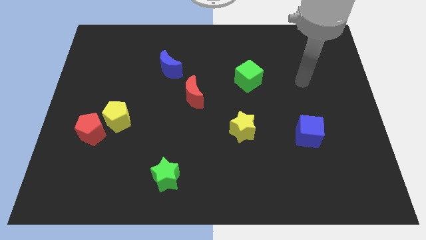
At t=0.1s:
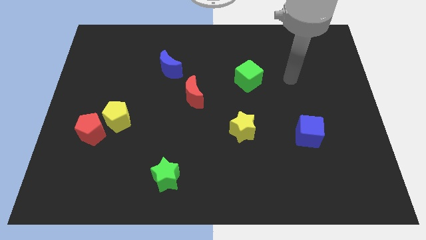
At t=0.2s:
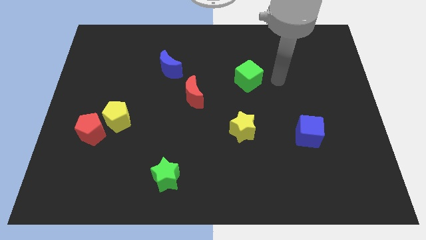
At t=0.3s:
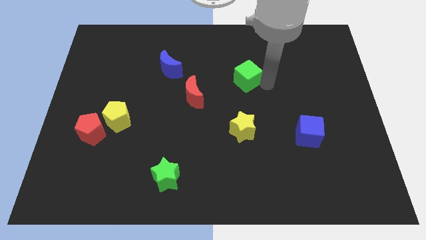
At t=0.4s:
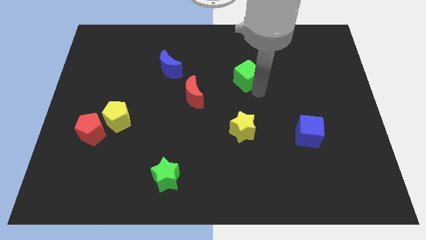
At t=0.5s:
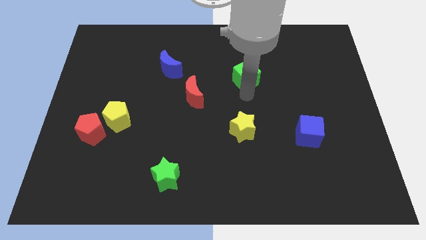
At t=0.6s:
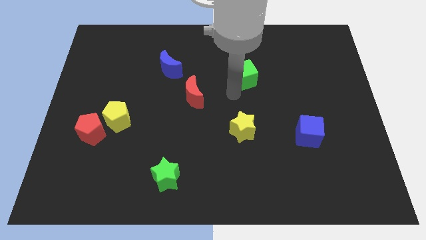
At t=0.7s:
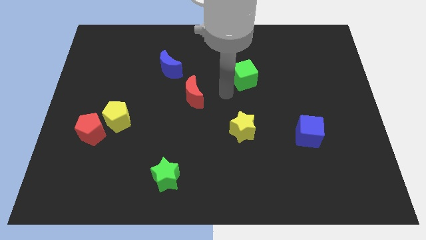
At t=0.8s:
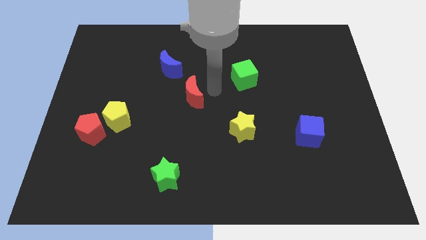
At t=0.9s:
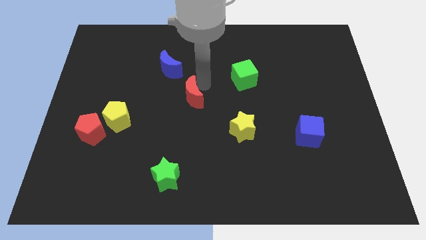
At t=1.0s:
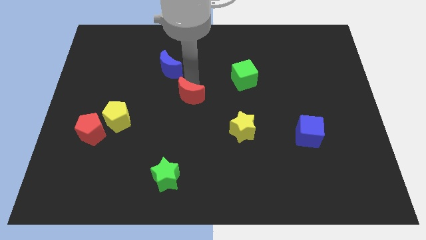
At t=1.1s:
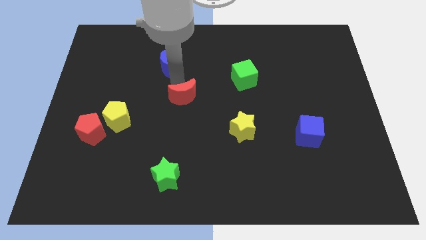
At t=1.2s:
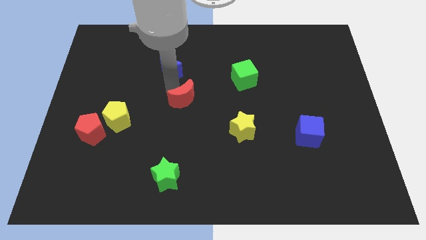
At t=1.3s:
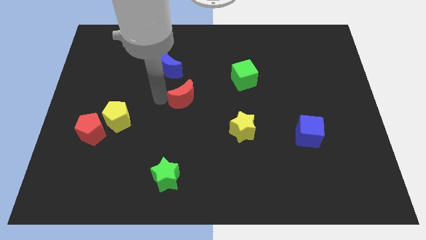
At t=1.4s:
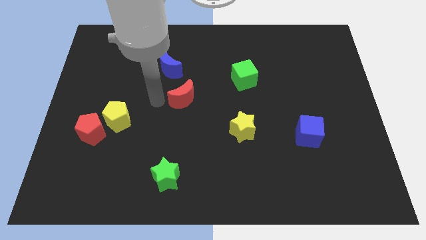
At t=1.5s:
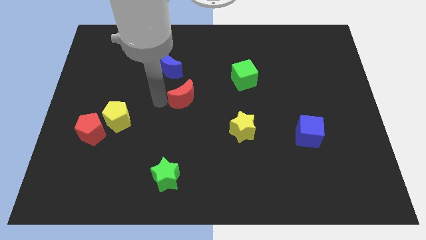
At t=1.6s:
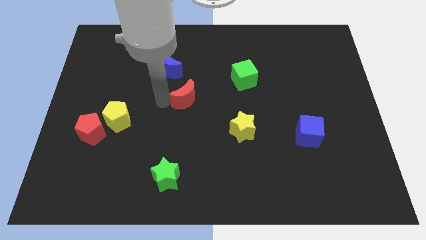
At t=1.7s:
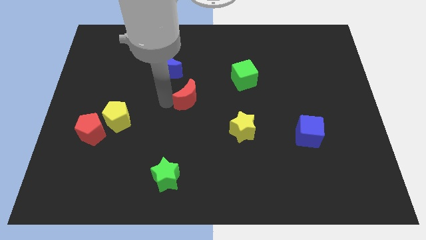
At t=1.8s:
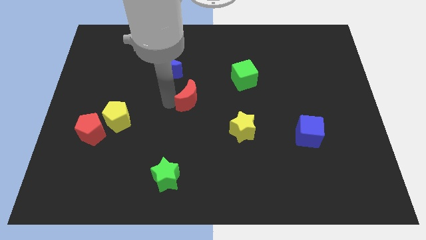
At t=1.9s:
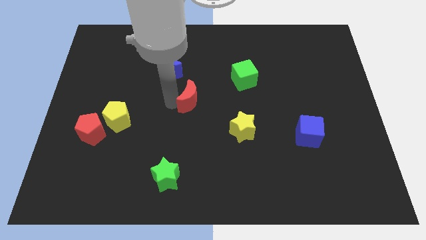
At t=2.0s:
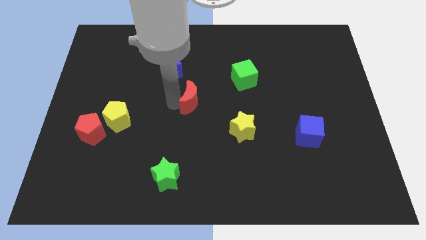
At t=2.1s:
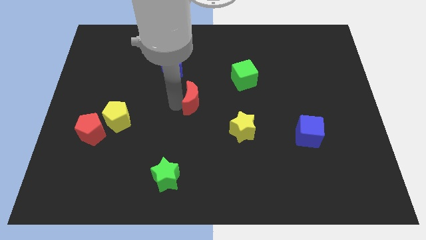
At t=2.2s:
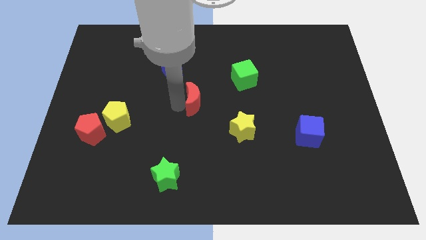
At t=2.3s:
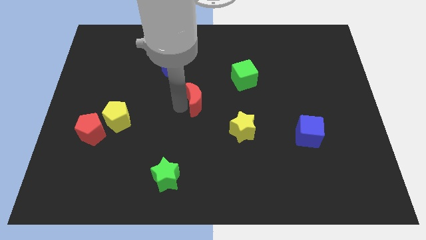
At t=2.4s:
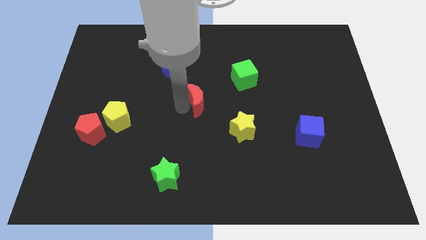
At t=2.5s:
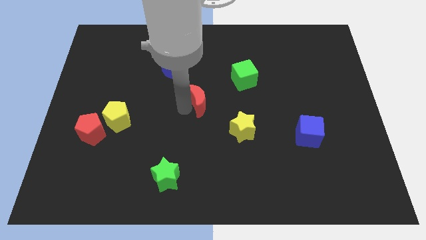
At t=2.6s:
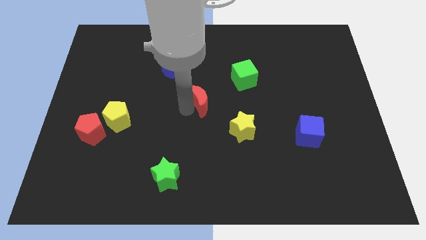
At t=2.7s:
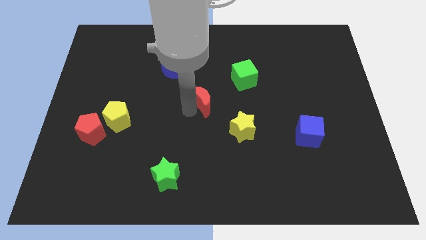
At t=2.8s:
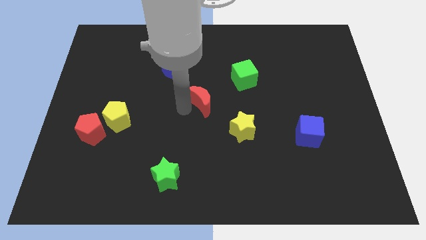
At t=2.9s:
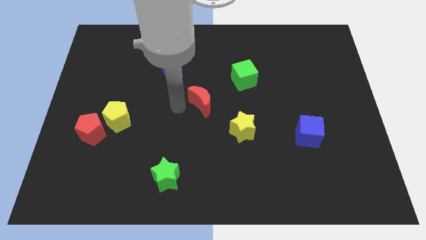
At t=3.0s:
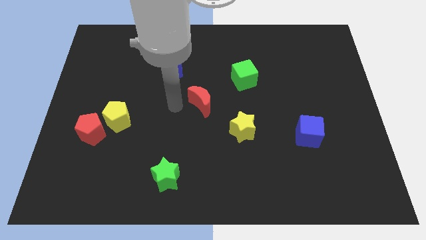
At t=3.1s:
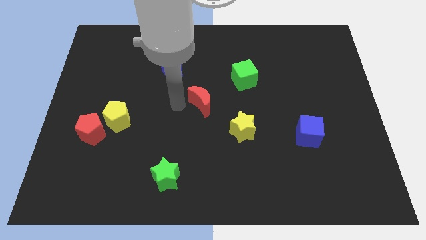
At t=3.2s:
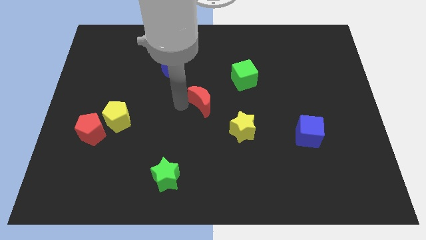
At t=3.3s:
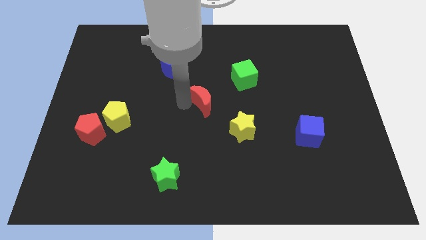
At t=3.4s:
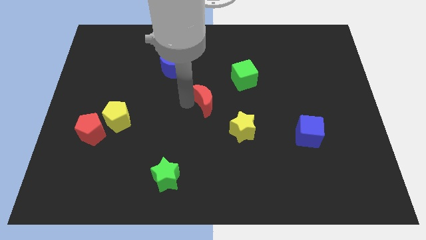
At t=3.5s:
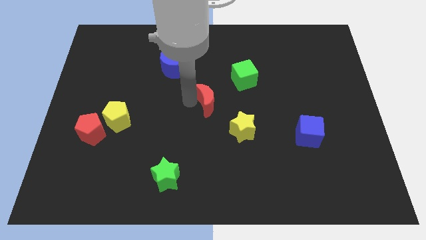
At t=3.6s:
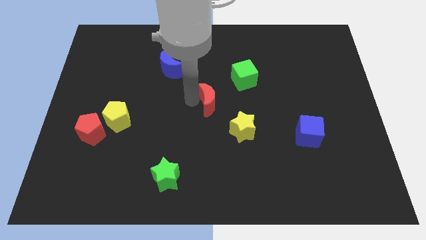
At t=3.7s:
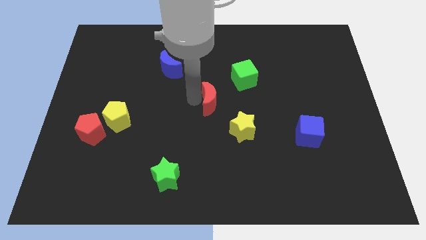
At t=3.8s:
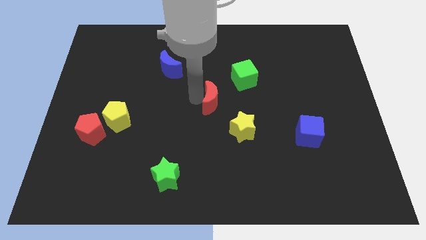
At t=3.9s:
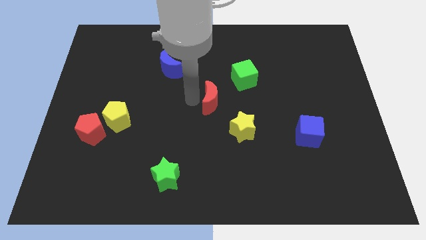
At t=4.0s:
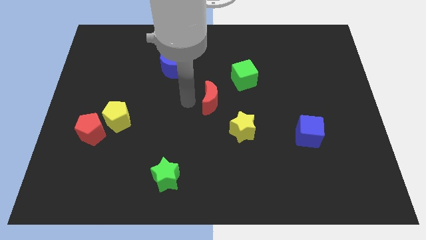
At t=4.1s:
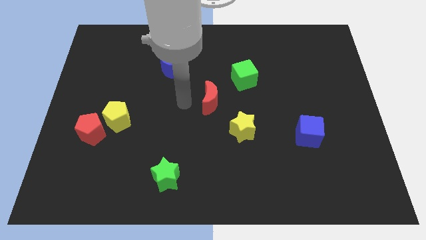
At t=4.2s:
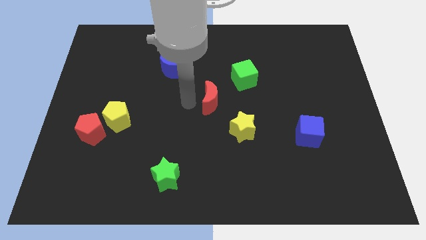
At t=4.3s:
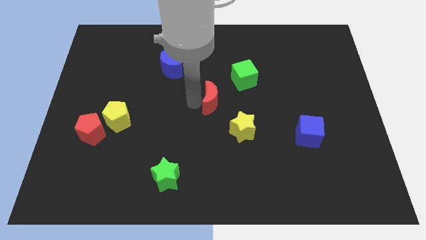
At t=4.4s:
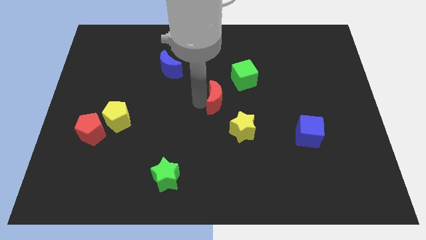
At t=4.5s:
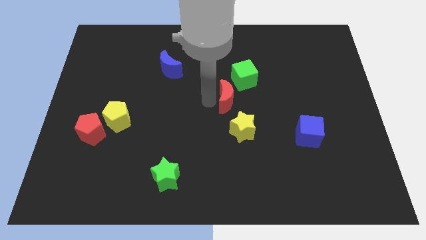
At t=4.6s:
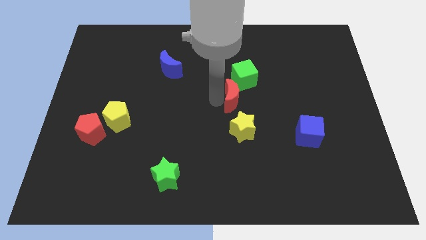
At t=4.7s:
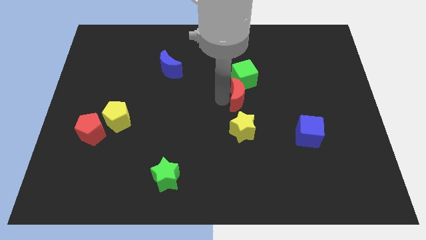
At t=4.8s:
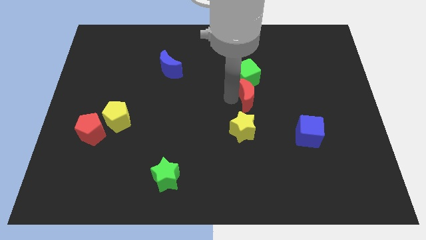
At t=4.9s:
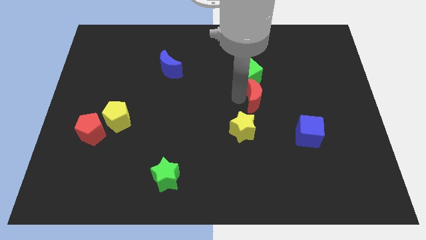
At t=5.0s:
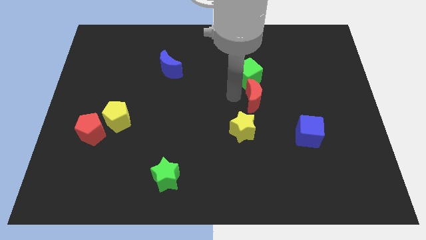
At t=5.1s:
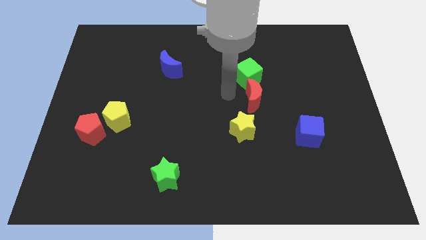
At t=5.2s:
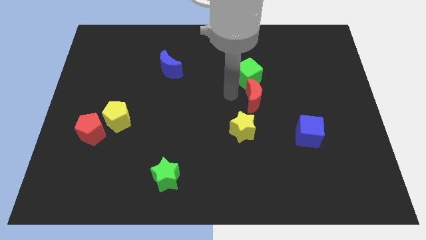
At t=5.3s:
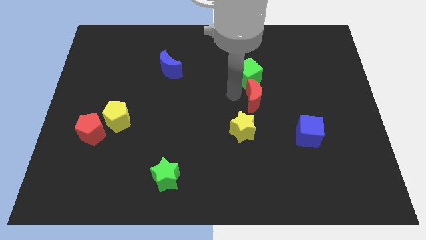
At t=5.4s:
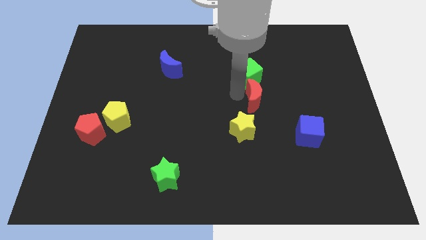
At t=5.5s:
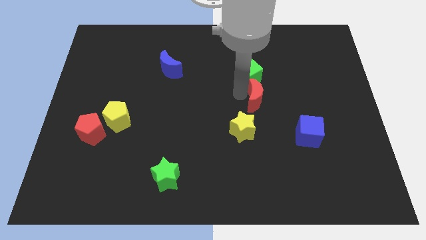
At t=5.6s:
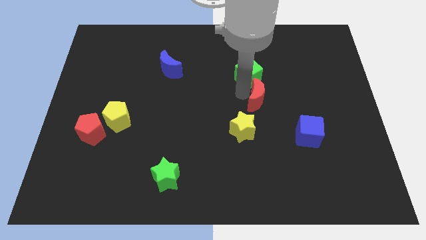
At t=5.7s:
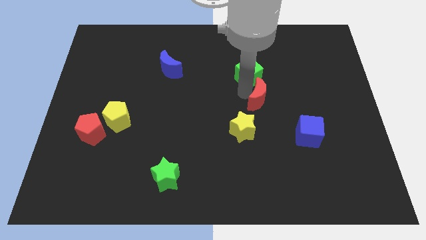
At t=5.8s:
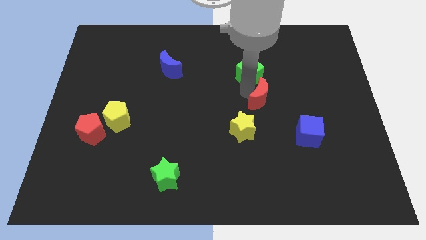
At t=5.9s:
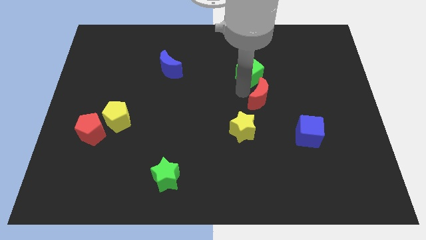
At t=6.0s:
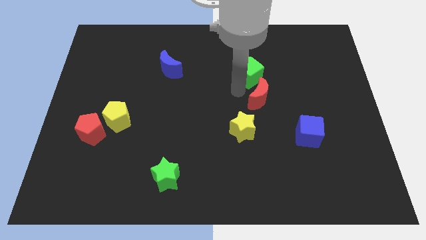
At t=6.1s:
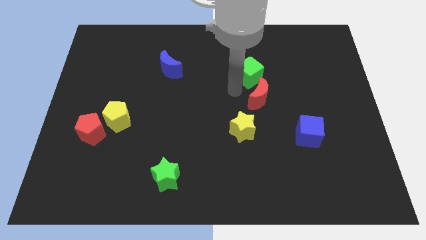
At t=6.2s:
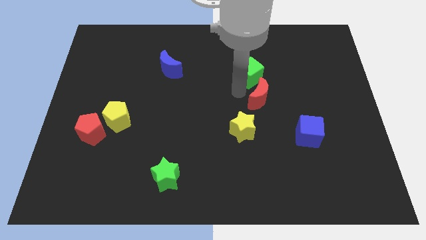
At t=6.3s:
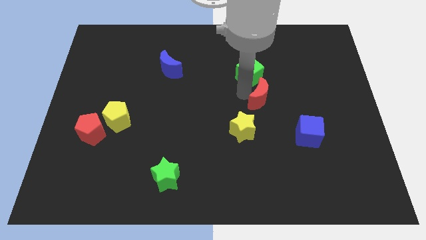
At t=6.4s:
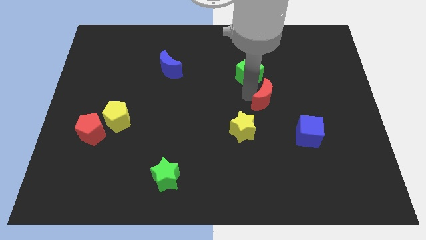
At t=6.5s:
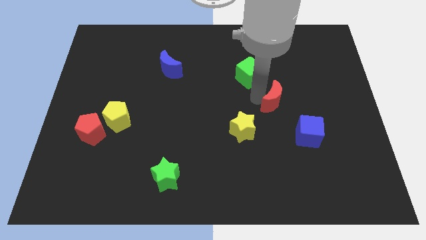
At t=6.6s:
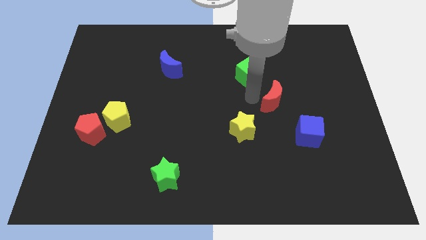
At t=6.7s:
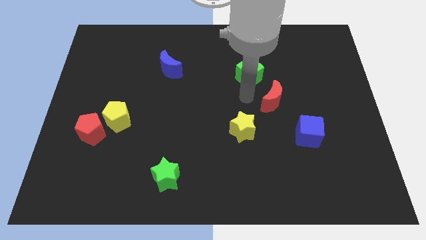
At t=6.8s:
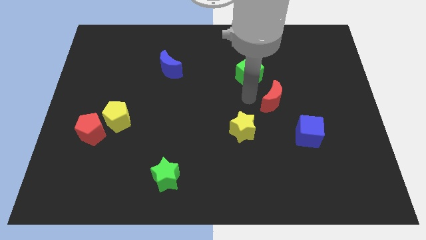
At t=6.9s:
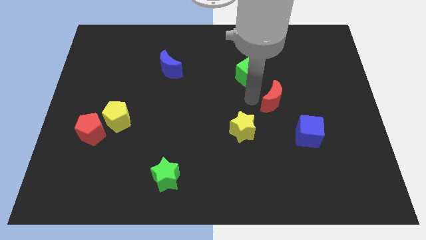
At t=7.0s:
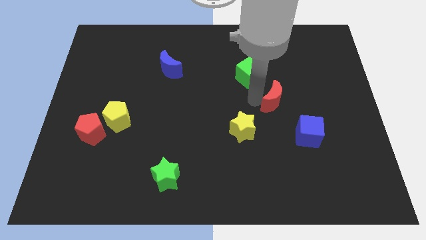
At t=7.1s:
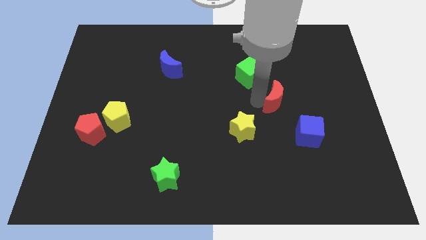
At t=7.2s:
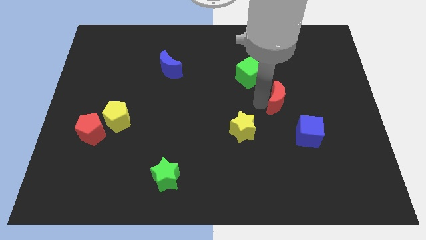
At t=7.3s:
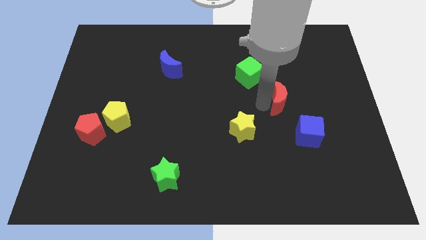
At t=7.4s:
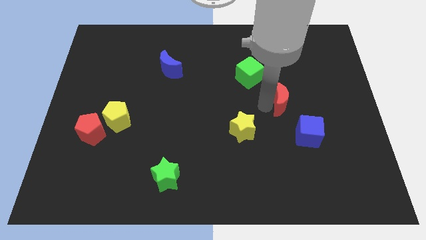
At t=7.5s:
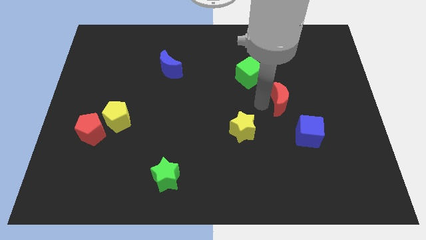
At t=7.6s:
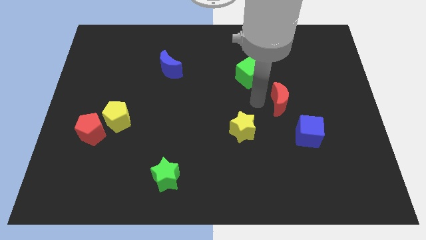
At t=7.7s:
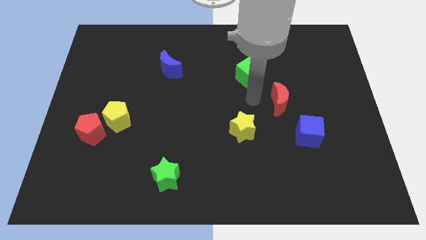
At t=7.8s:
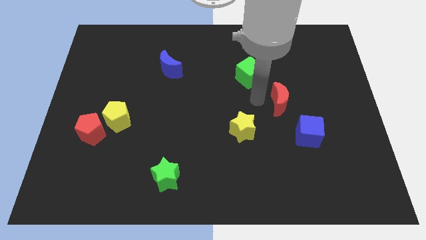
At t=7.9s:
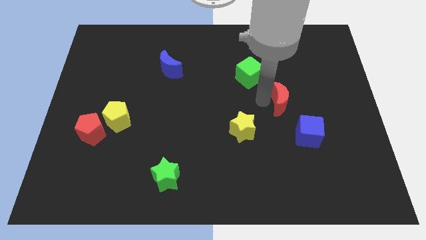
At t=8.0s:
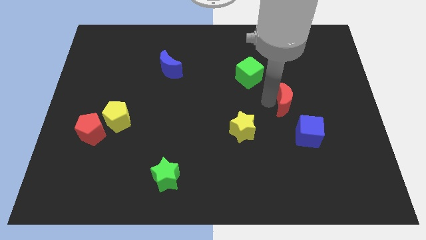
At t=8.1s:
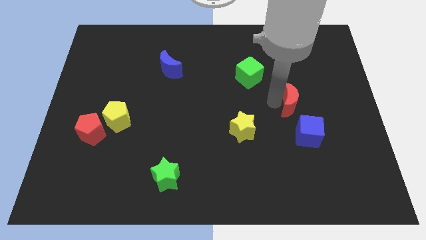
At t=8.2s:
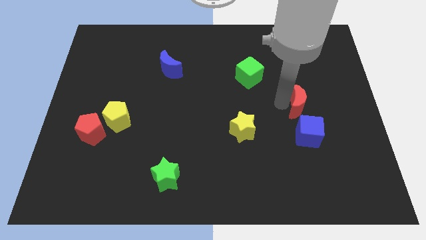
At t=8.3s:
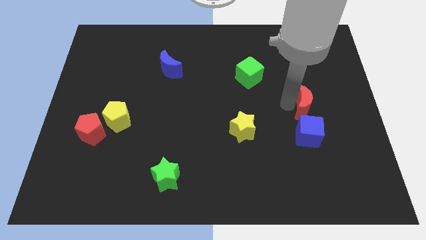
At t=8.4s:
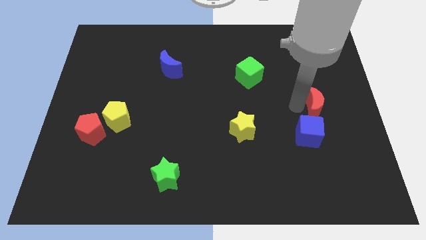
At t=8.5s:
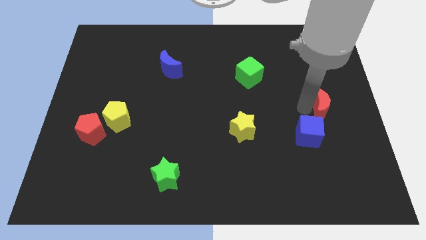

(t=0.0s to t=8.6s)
slide the red moon to the center right
